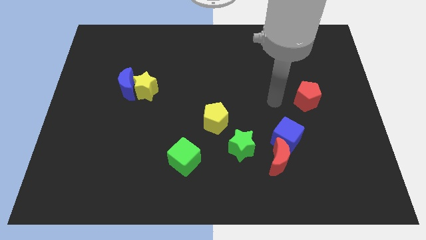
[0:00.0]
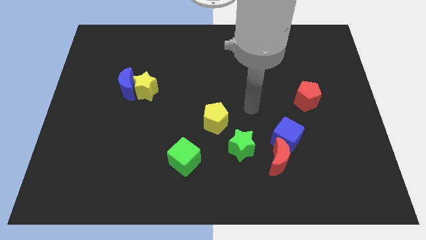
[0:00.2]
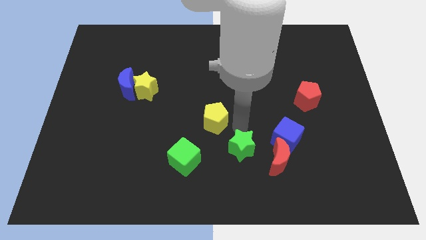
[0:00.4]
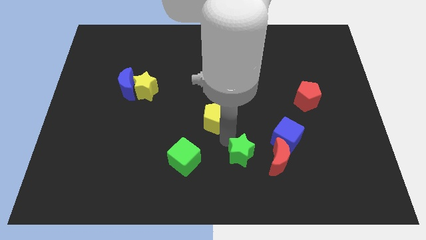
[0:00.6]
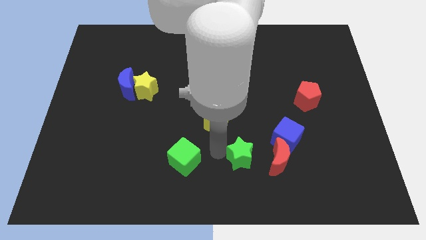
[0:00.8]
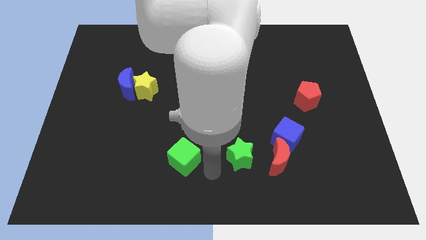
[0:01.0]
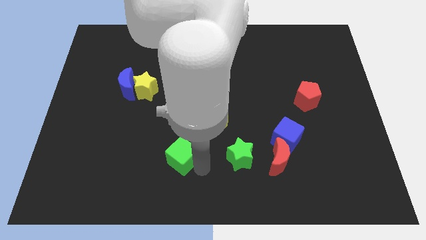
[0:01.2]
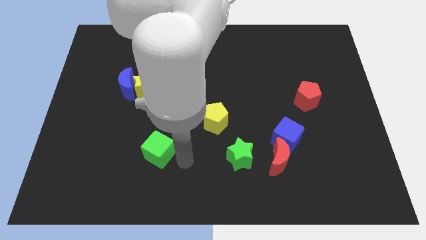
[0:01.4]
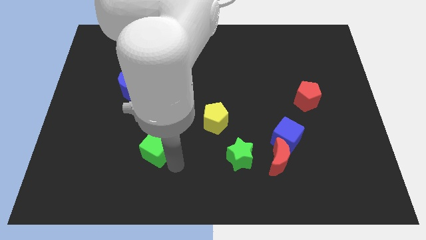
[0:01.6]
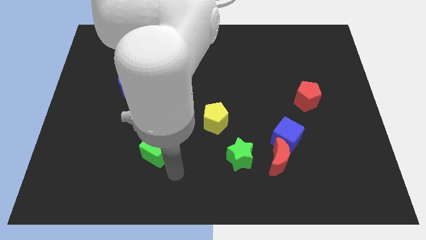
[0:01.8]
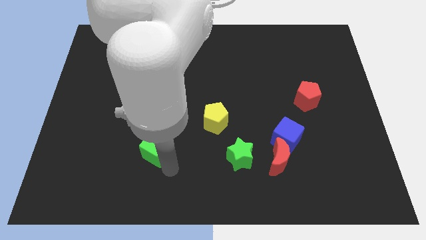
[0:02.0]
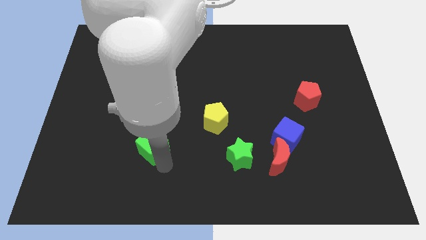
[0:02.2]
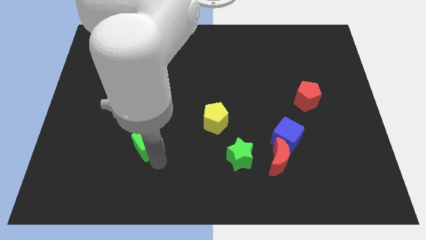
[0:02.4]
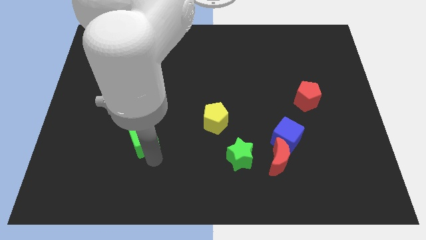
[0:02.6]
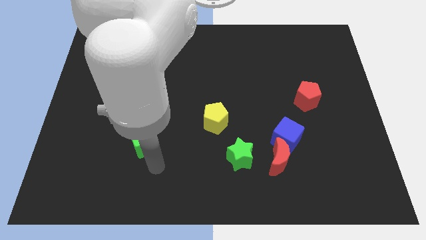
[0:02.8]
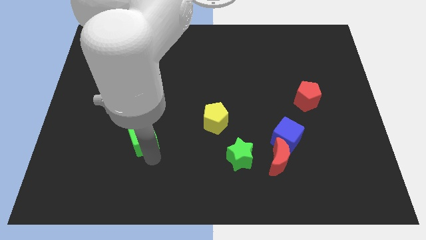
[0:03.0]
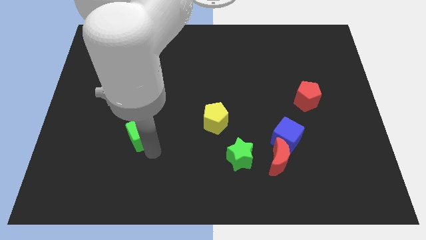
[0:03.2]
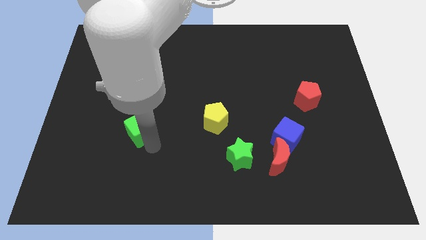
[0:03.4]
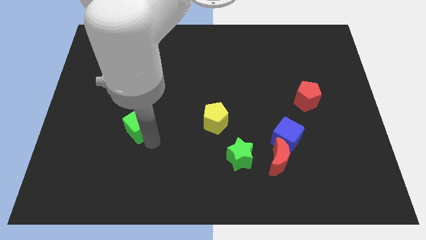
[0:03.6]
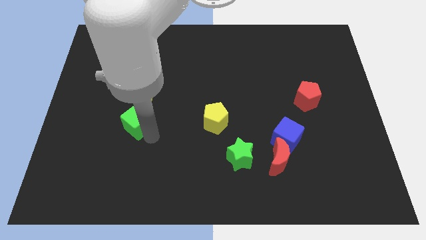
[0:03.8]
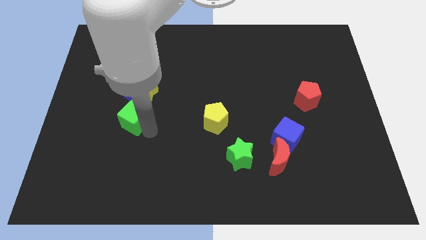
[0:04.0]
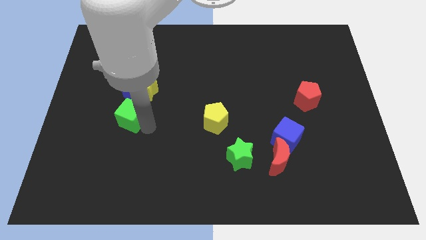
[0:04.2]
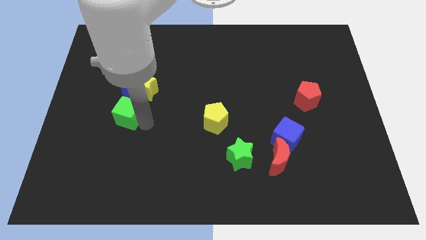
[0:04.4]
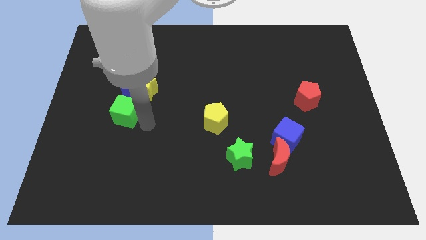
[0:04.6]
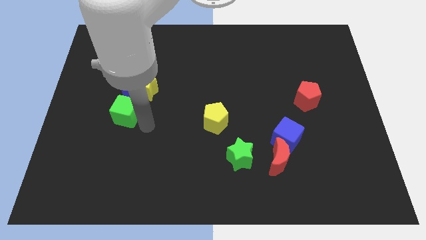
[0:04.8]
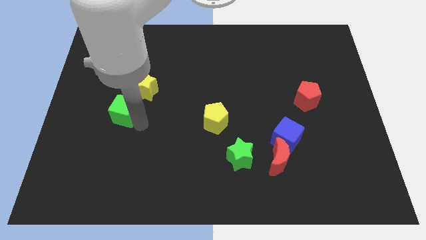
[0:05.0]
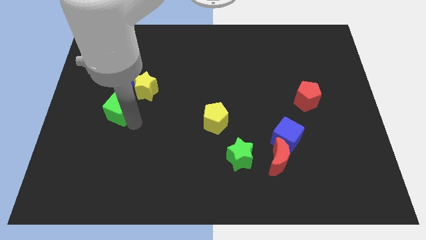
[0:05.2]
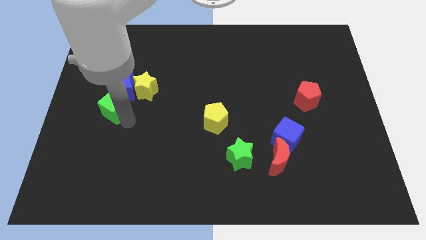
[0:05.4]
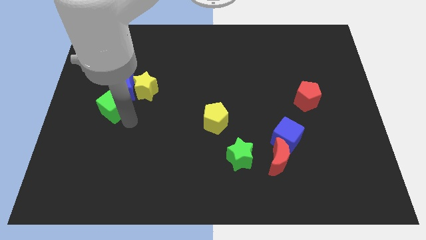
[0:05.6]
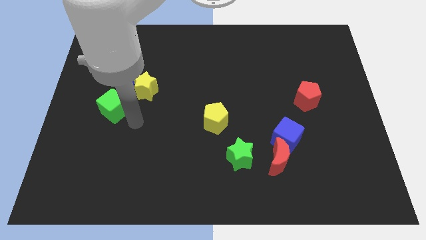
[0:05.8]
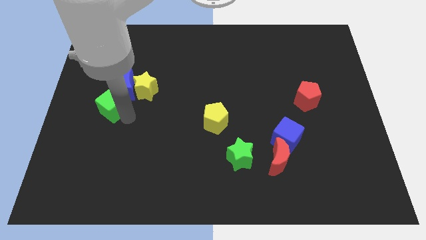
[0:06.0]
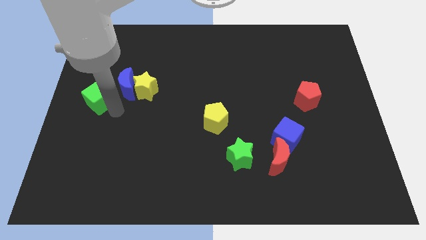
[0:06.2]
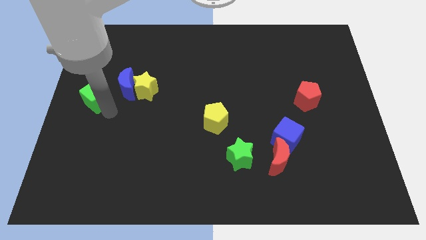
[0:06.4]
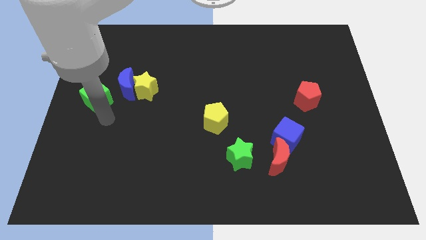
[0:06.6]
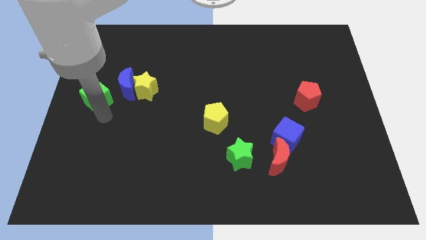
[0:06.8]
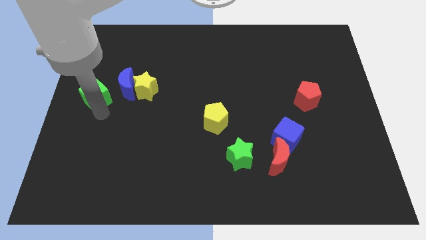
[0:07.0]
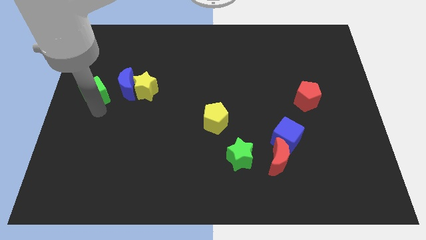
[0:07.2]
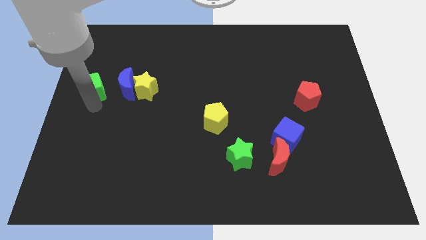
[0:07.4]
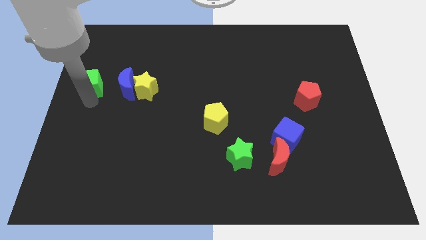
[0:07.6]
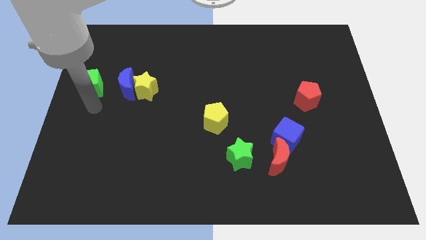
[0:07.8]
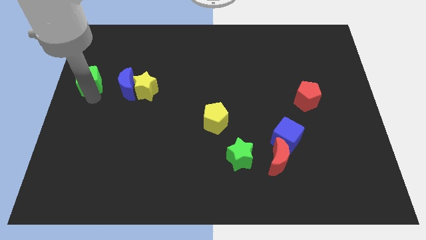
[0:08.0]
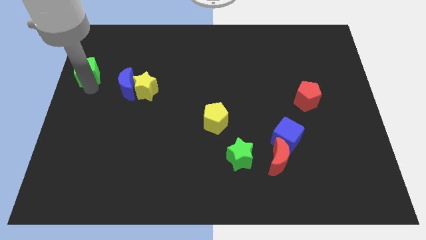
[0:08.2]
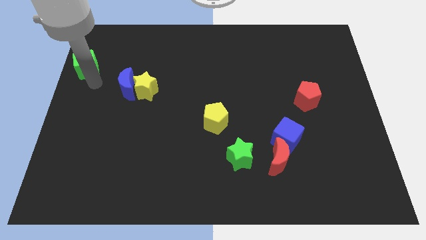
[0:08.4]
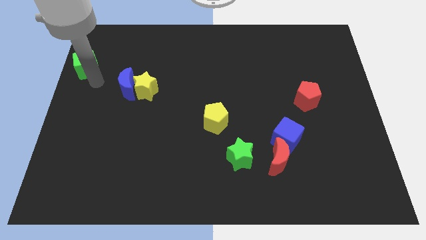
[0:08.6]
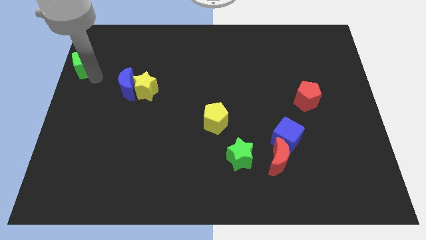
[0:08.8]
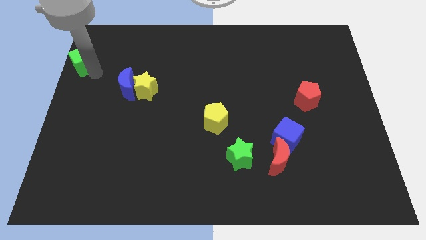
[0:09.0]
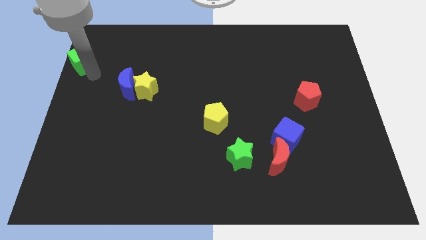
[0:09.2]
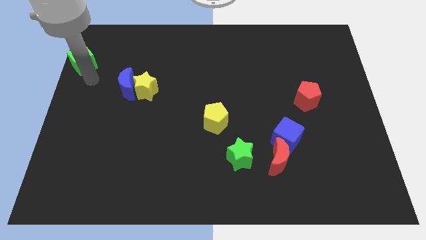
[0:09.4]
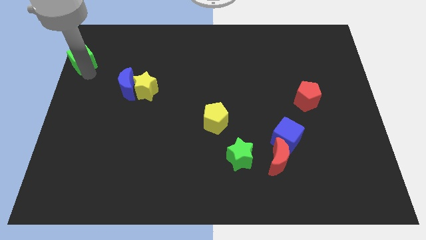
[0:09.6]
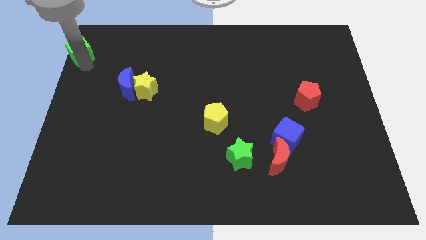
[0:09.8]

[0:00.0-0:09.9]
move the green cube to the top left corner

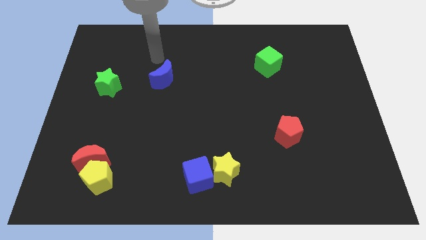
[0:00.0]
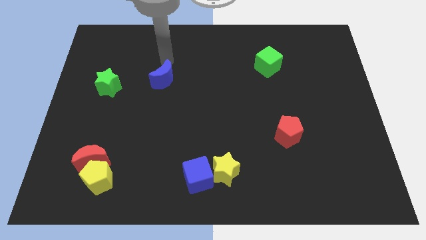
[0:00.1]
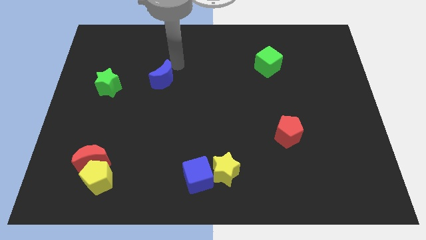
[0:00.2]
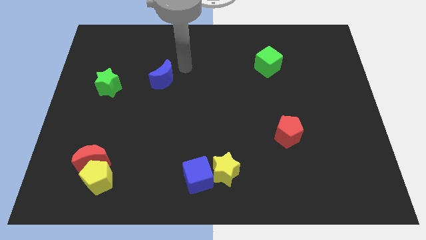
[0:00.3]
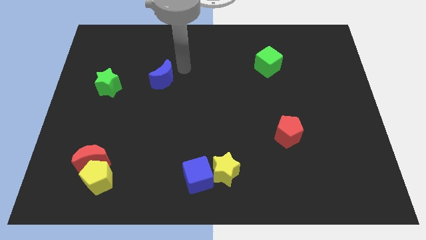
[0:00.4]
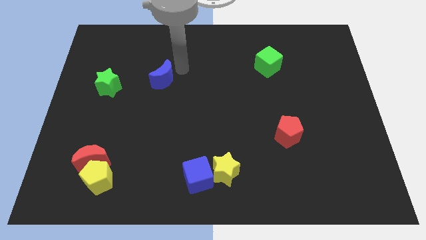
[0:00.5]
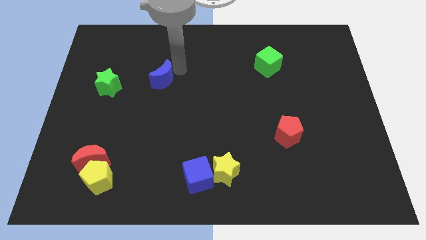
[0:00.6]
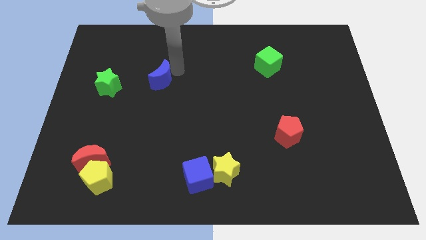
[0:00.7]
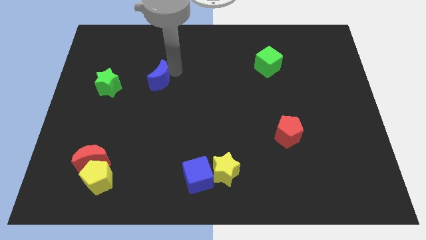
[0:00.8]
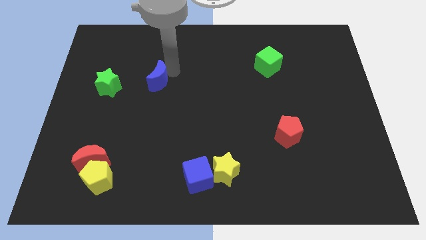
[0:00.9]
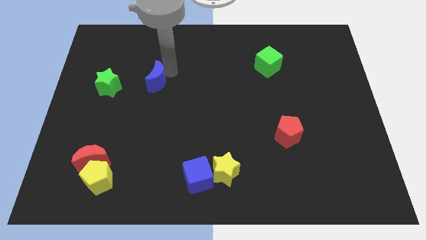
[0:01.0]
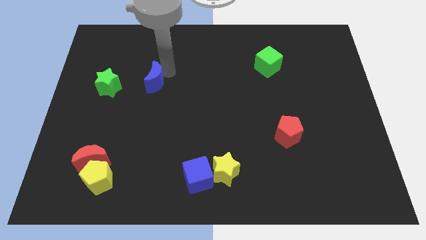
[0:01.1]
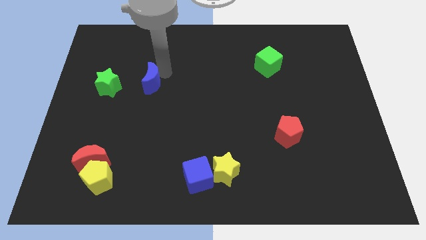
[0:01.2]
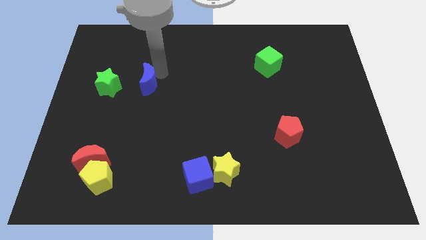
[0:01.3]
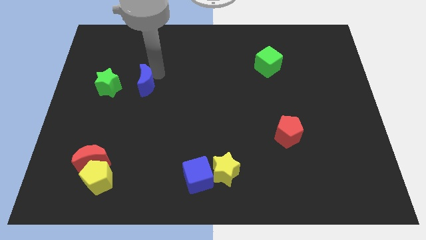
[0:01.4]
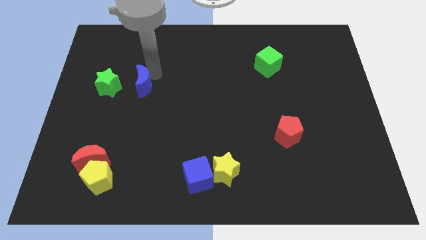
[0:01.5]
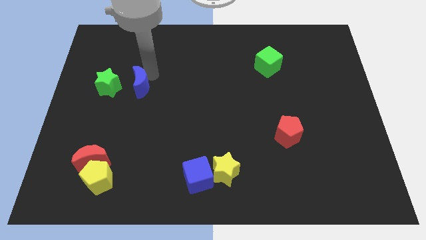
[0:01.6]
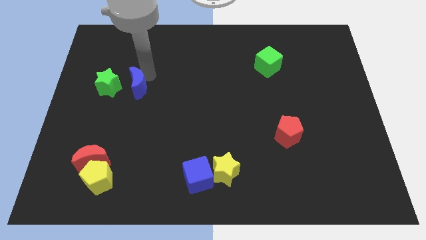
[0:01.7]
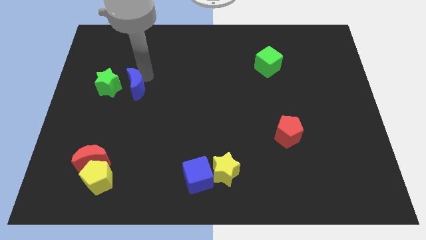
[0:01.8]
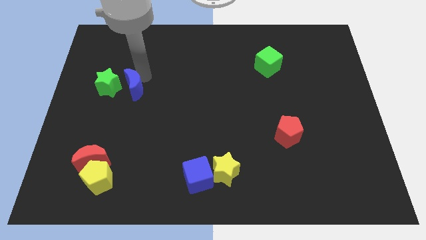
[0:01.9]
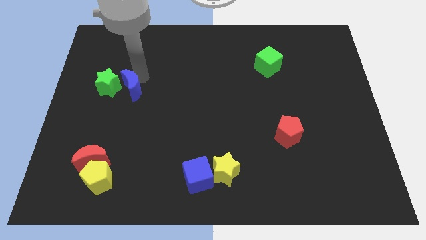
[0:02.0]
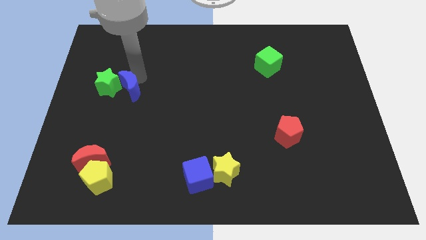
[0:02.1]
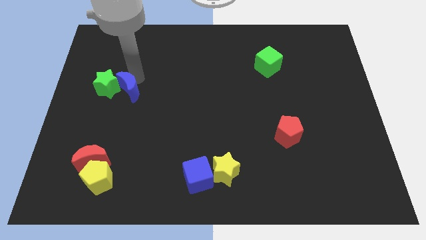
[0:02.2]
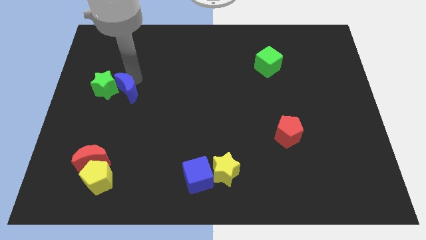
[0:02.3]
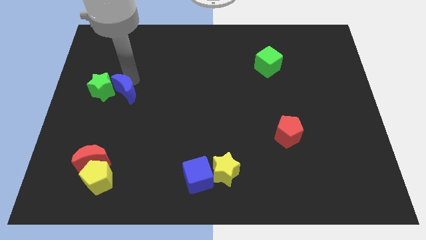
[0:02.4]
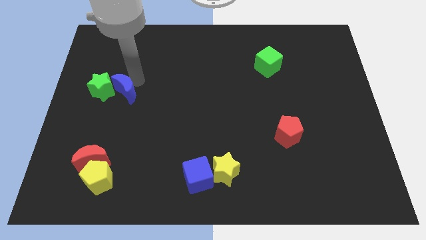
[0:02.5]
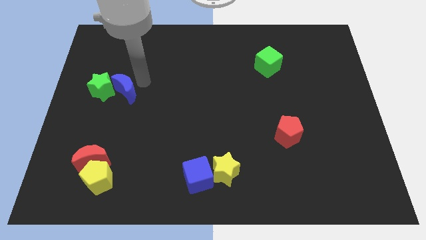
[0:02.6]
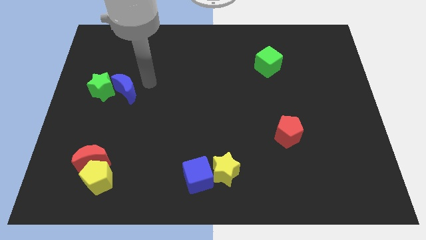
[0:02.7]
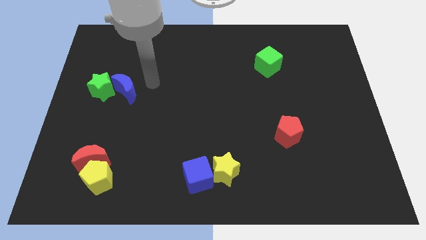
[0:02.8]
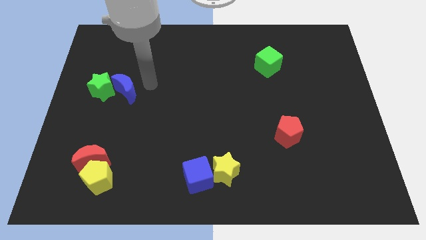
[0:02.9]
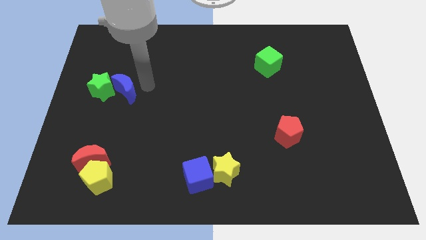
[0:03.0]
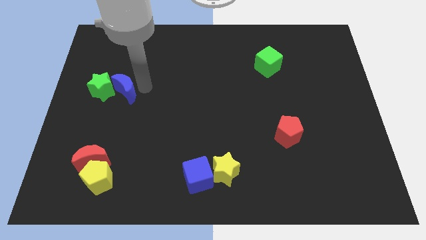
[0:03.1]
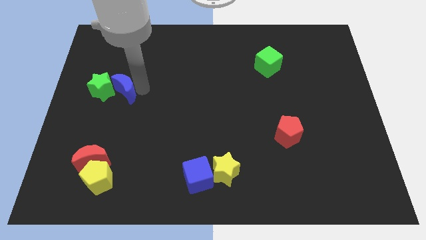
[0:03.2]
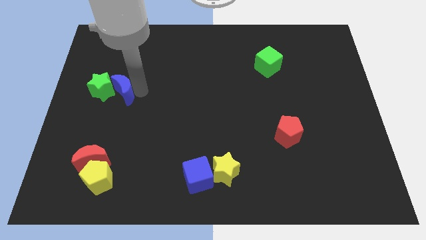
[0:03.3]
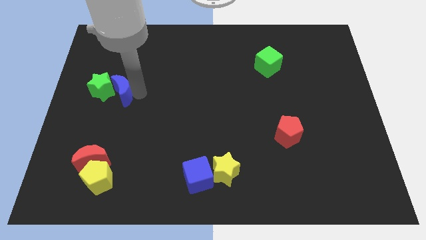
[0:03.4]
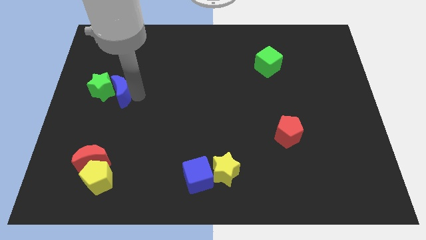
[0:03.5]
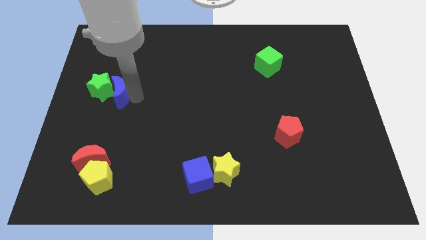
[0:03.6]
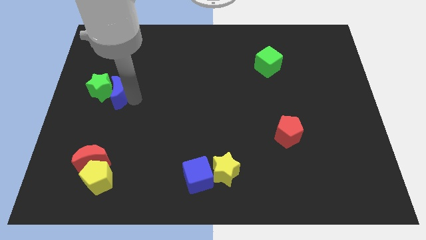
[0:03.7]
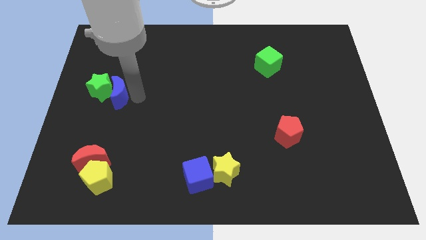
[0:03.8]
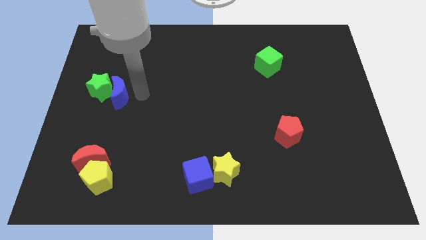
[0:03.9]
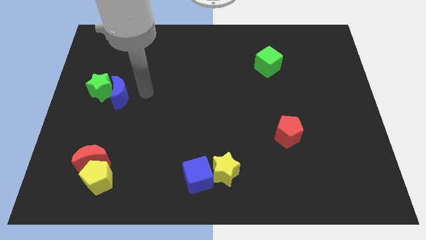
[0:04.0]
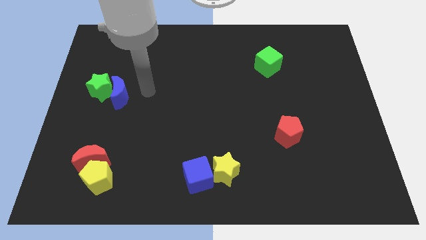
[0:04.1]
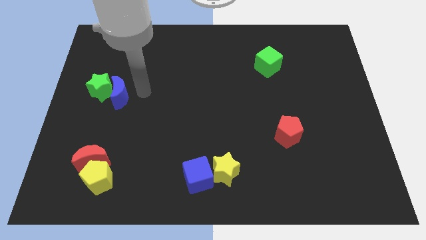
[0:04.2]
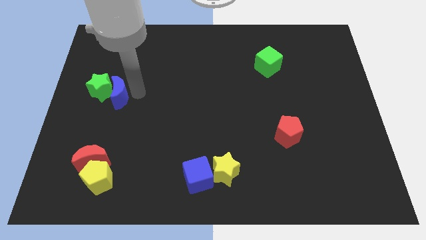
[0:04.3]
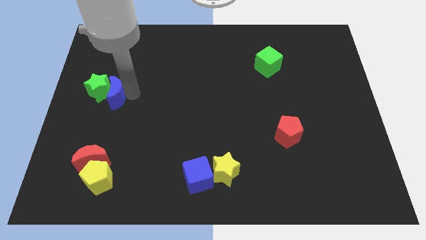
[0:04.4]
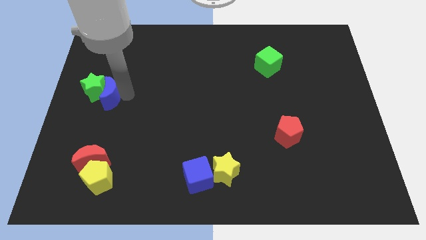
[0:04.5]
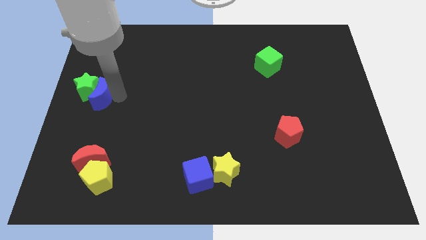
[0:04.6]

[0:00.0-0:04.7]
put the blue moon to the left side of the board
